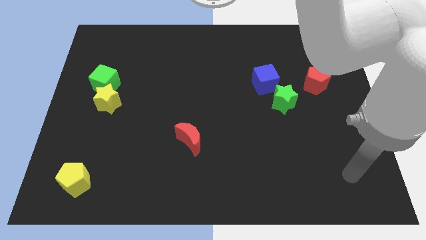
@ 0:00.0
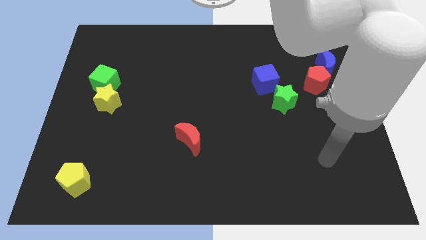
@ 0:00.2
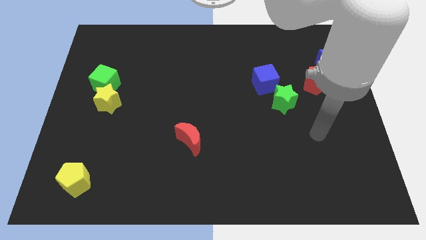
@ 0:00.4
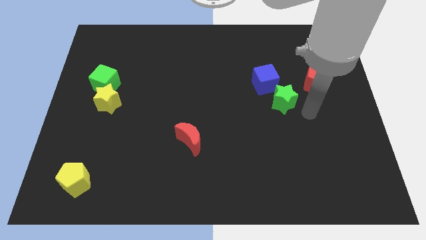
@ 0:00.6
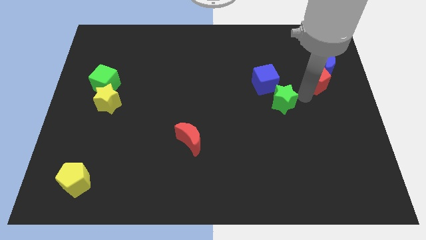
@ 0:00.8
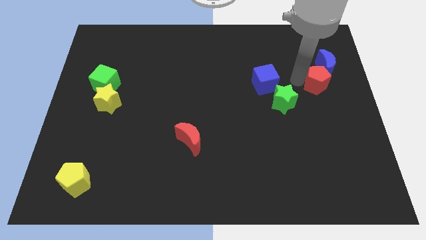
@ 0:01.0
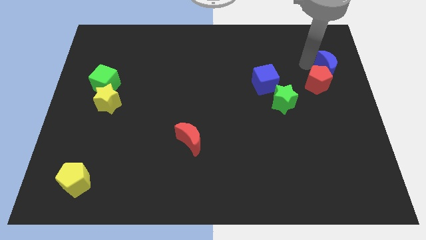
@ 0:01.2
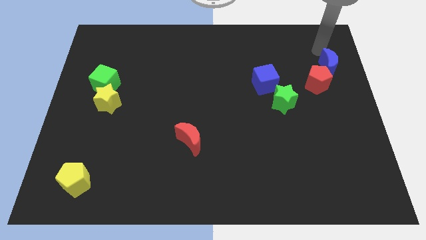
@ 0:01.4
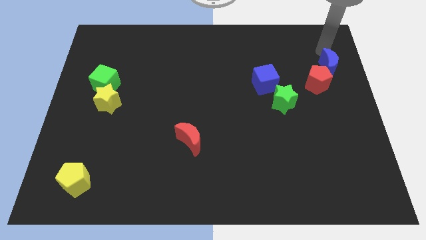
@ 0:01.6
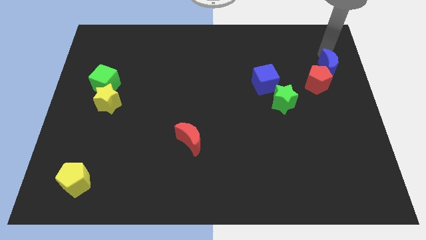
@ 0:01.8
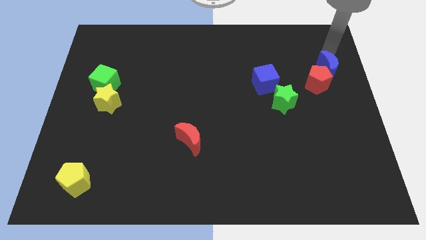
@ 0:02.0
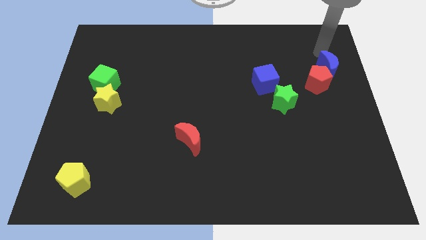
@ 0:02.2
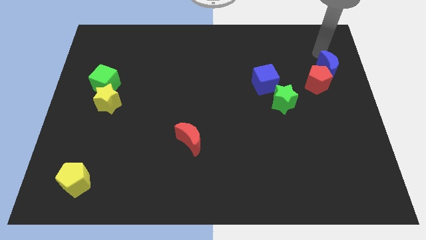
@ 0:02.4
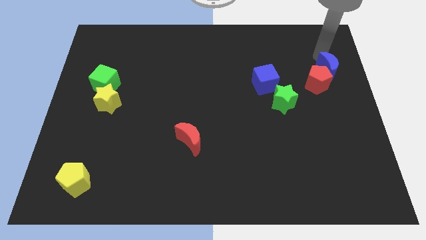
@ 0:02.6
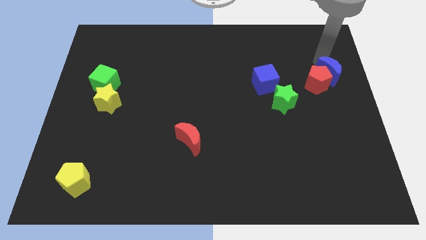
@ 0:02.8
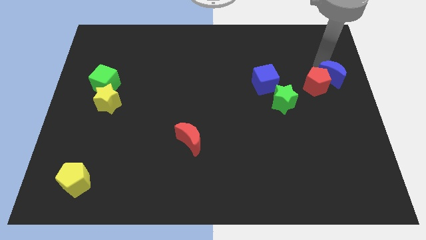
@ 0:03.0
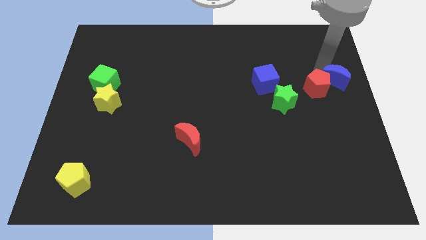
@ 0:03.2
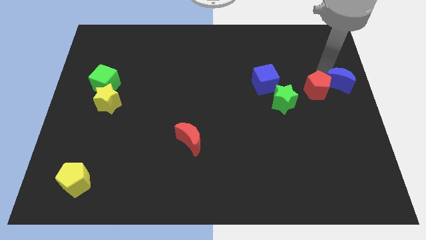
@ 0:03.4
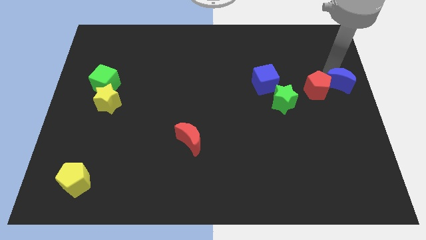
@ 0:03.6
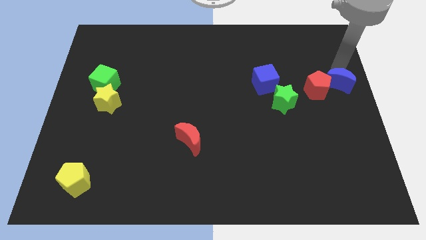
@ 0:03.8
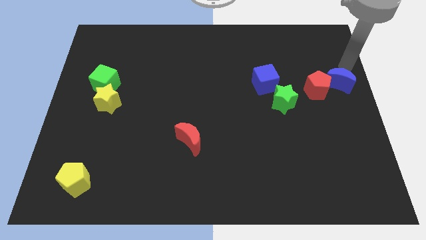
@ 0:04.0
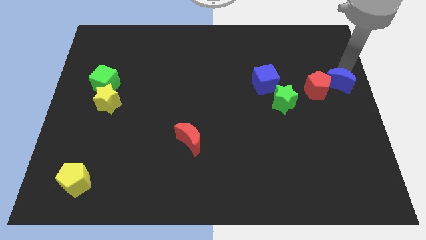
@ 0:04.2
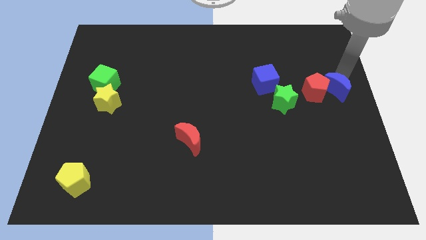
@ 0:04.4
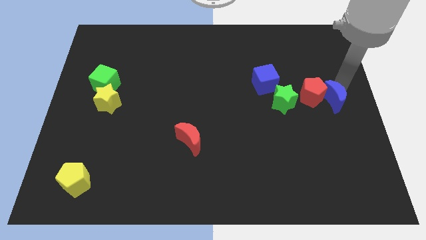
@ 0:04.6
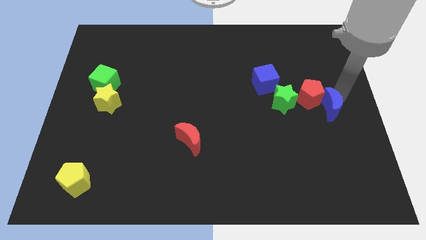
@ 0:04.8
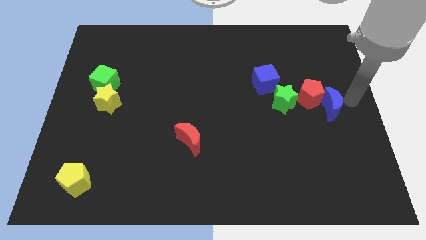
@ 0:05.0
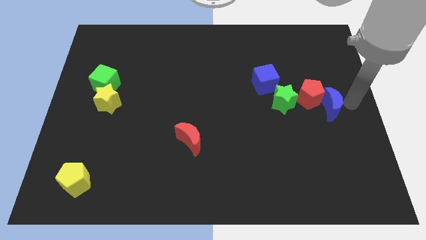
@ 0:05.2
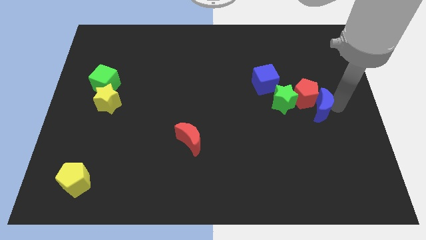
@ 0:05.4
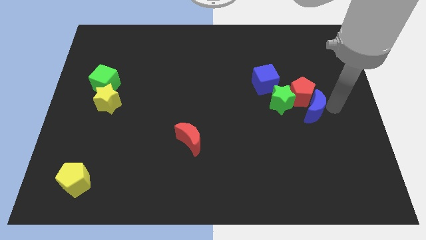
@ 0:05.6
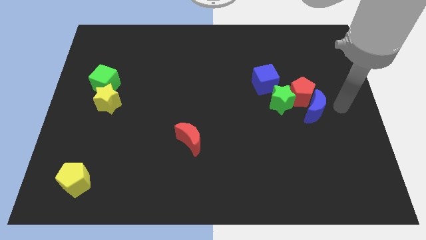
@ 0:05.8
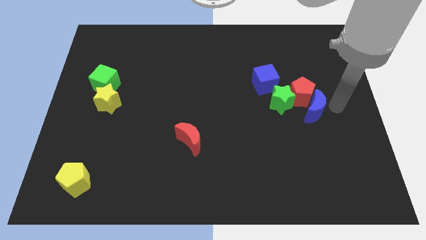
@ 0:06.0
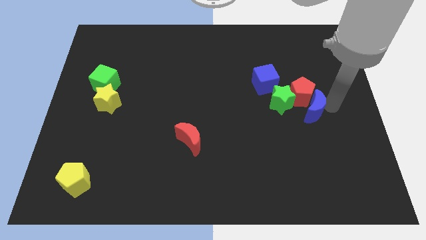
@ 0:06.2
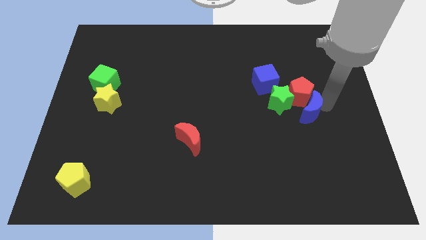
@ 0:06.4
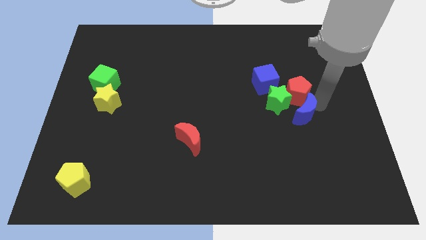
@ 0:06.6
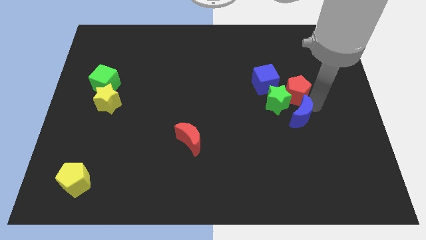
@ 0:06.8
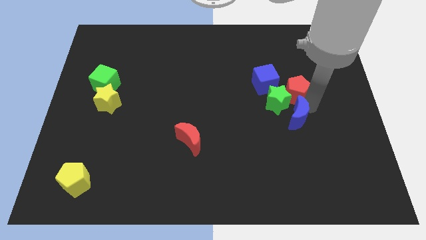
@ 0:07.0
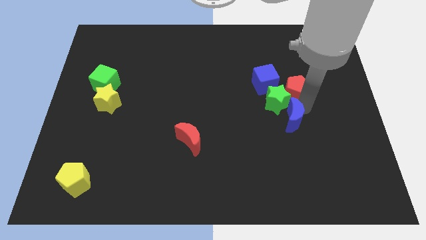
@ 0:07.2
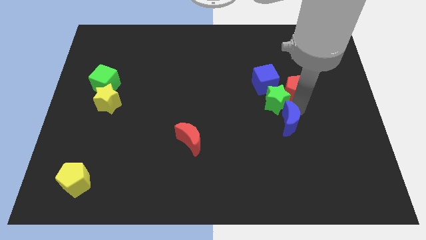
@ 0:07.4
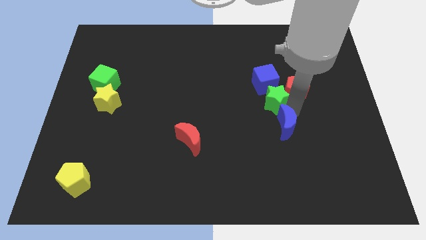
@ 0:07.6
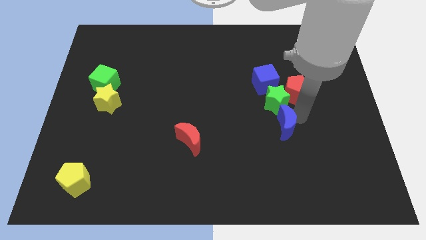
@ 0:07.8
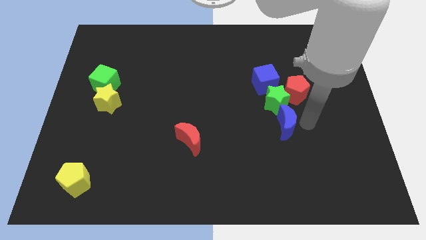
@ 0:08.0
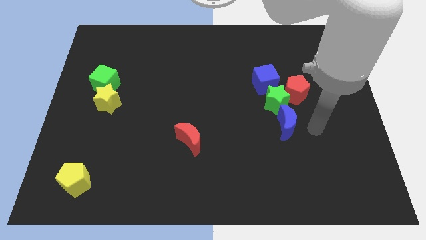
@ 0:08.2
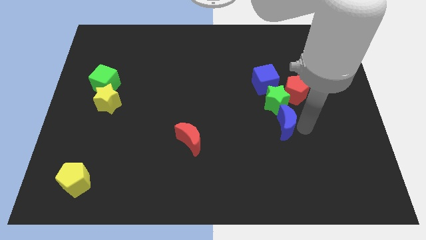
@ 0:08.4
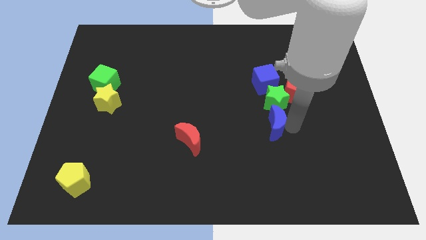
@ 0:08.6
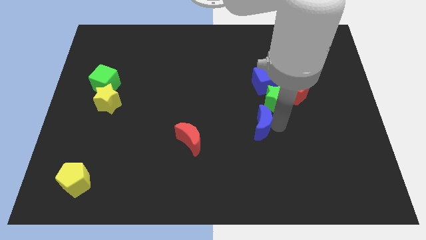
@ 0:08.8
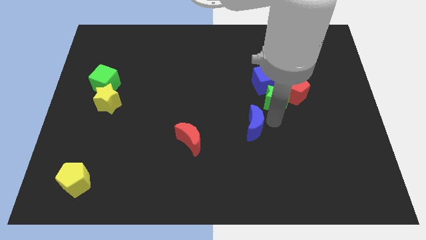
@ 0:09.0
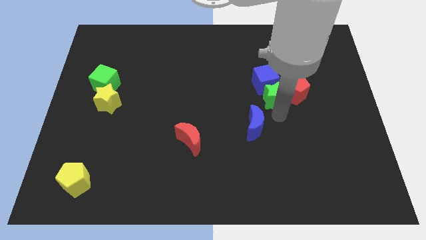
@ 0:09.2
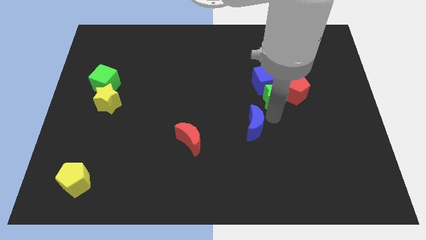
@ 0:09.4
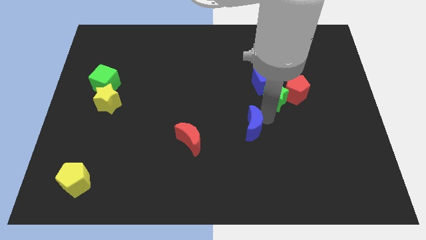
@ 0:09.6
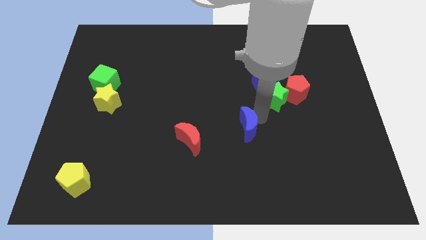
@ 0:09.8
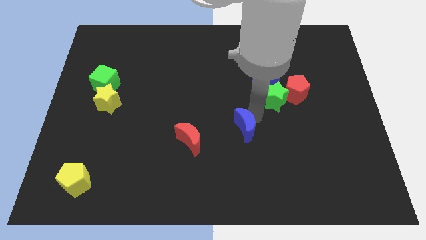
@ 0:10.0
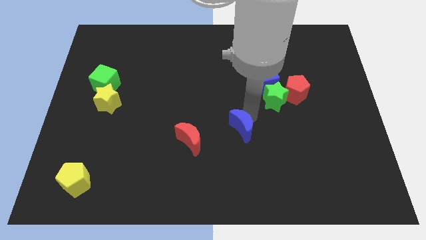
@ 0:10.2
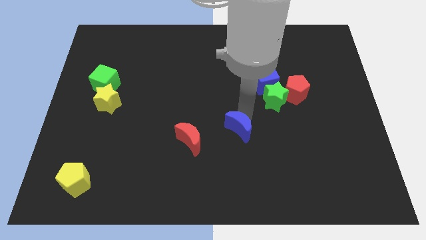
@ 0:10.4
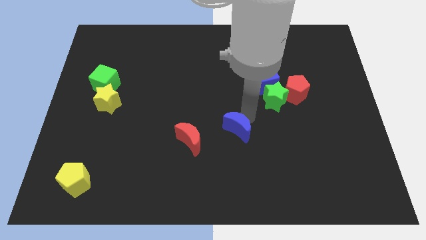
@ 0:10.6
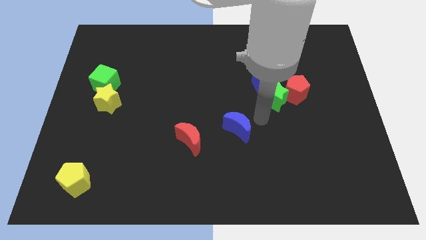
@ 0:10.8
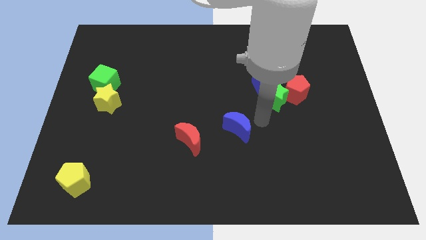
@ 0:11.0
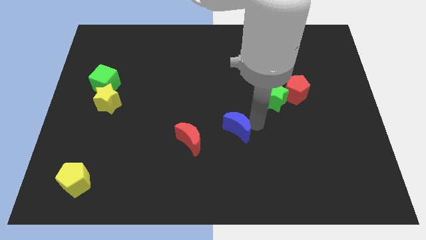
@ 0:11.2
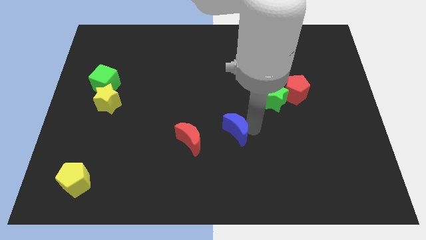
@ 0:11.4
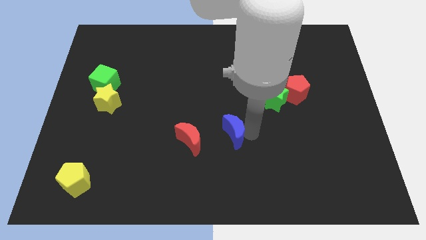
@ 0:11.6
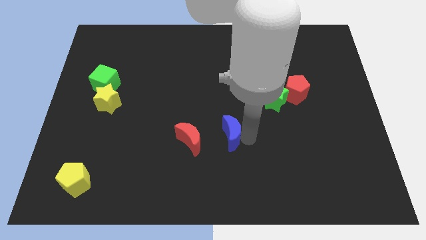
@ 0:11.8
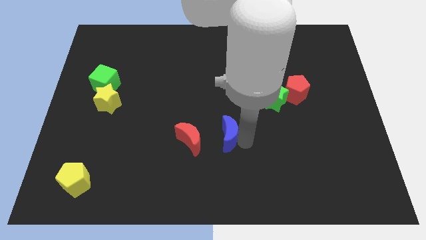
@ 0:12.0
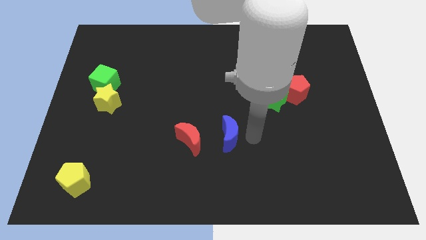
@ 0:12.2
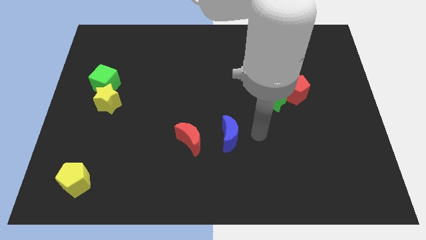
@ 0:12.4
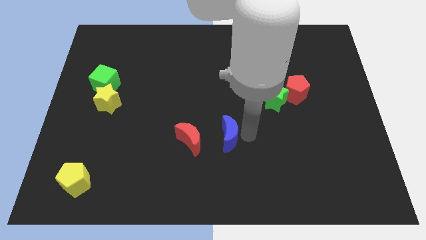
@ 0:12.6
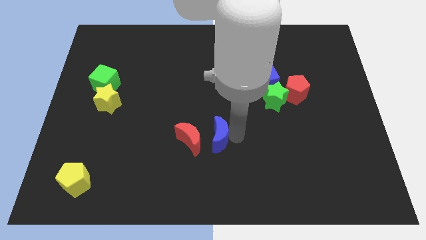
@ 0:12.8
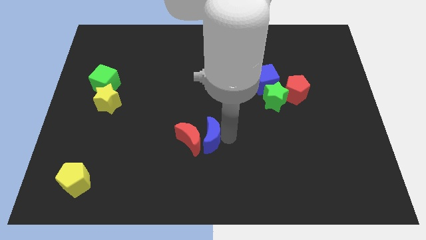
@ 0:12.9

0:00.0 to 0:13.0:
slide the blue moon close to the red moon
